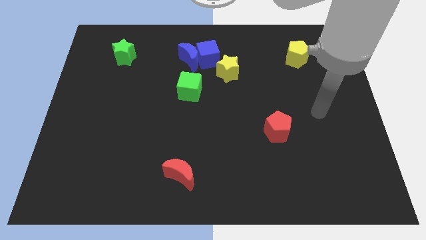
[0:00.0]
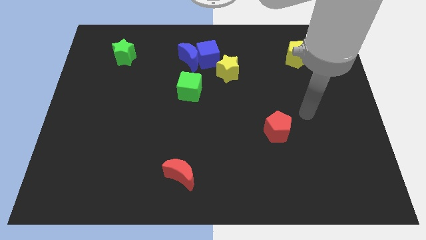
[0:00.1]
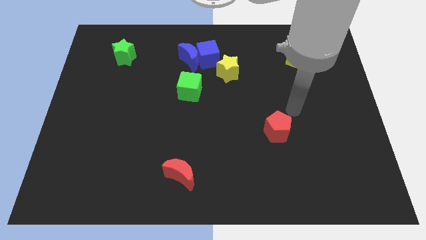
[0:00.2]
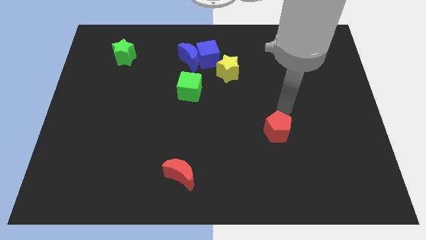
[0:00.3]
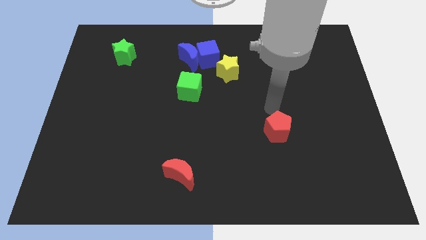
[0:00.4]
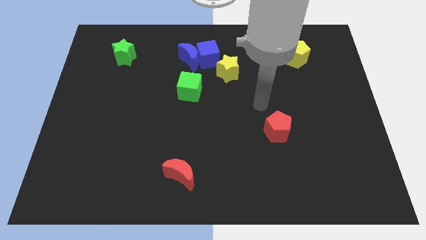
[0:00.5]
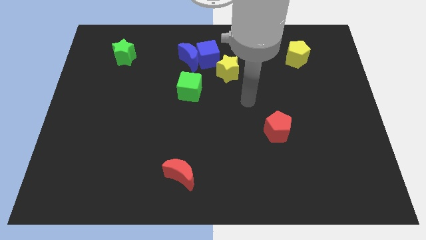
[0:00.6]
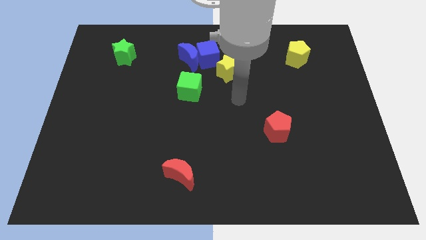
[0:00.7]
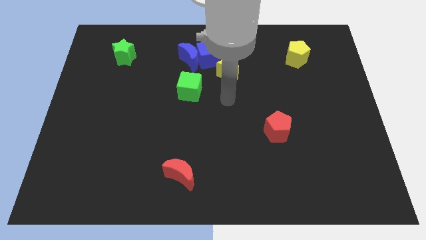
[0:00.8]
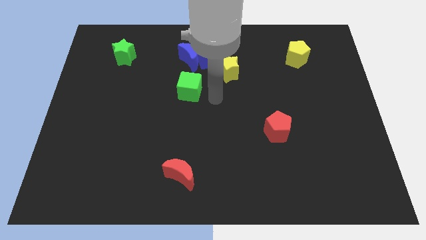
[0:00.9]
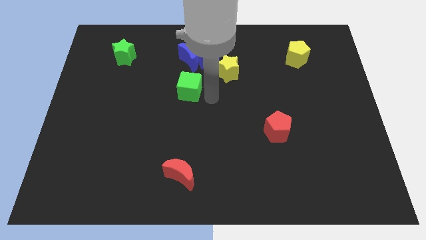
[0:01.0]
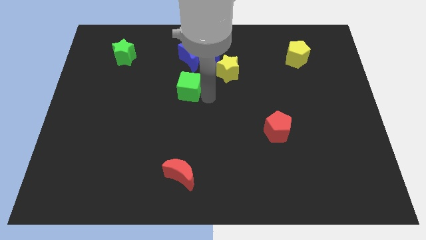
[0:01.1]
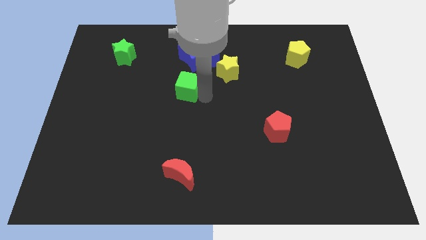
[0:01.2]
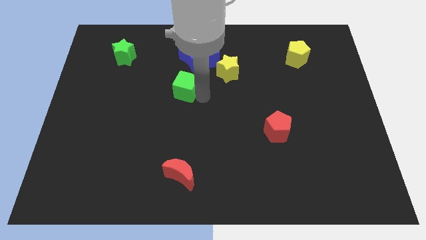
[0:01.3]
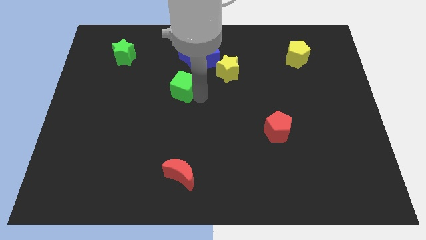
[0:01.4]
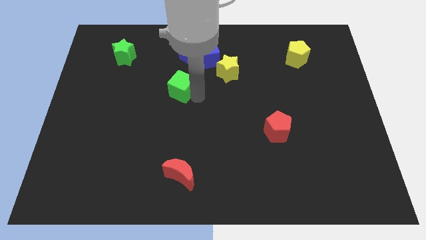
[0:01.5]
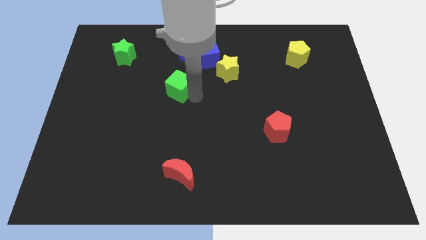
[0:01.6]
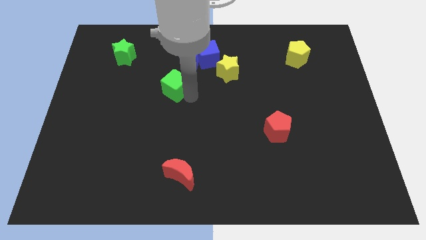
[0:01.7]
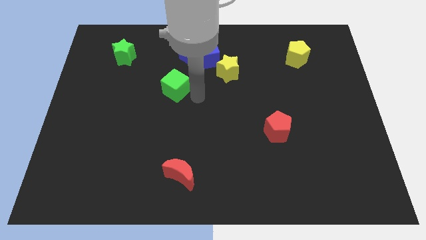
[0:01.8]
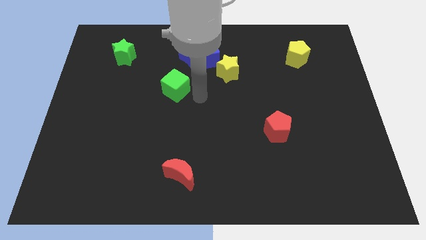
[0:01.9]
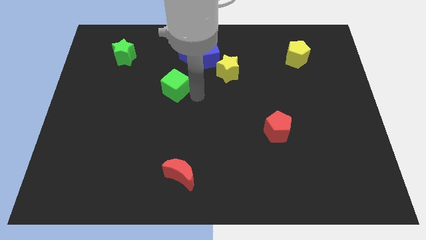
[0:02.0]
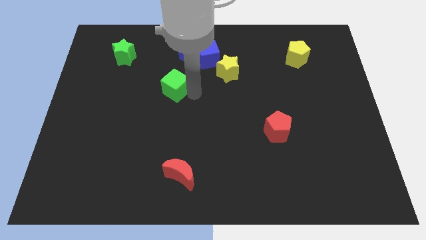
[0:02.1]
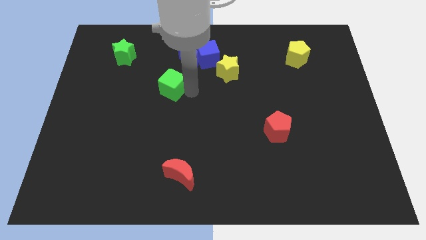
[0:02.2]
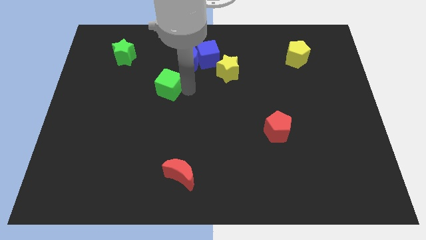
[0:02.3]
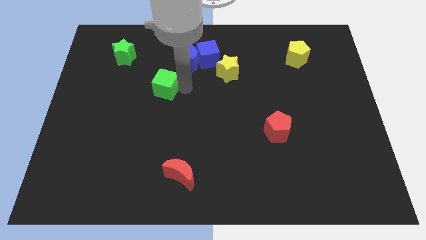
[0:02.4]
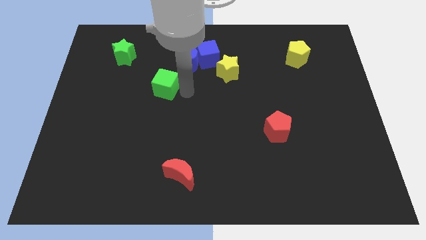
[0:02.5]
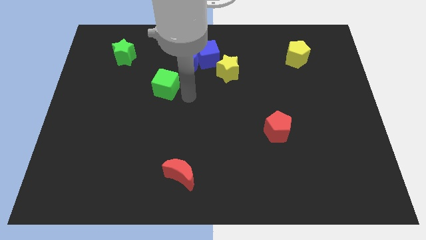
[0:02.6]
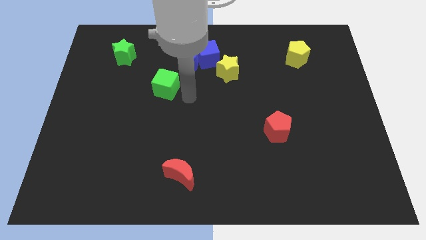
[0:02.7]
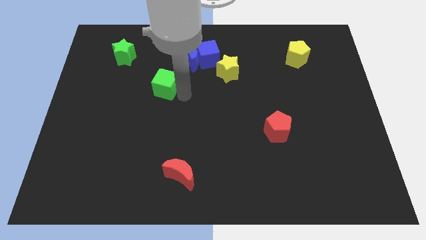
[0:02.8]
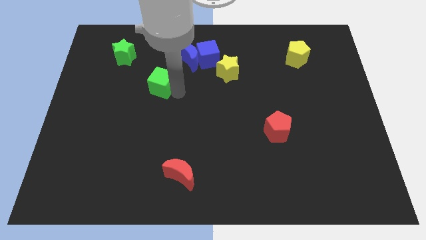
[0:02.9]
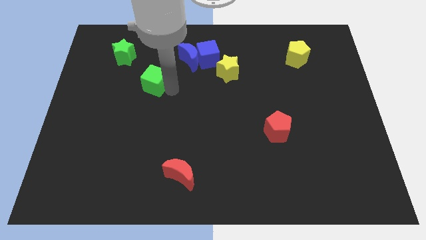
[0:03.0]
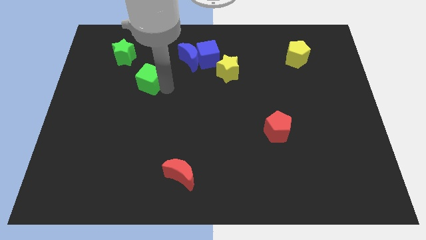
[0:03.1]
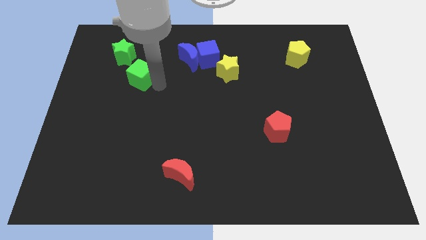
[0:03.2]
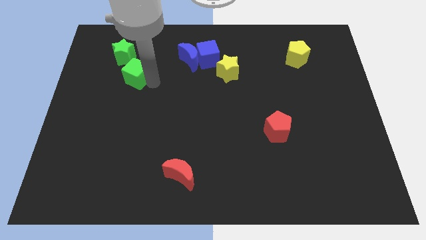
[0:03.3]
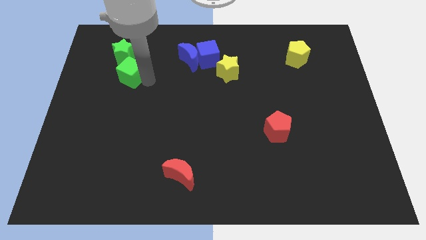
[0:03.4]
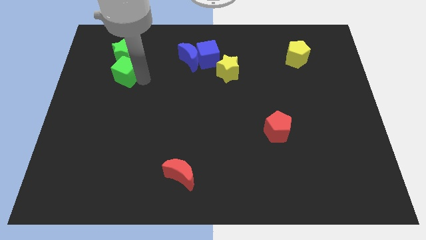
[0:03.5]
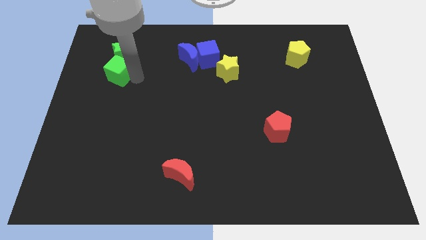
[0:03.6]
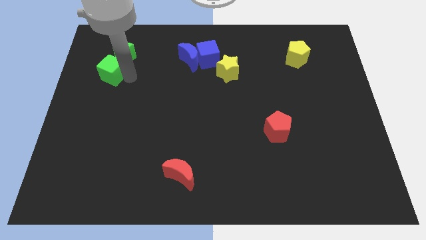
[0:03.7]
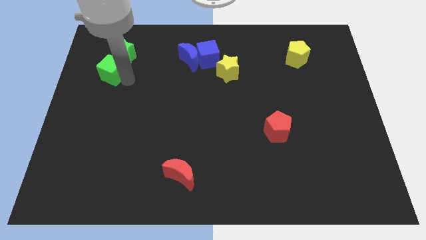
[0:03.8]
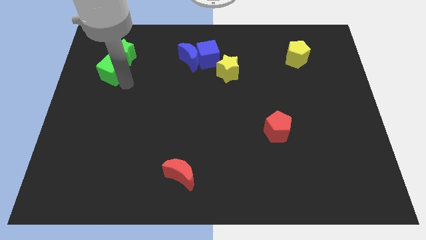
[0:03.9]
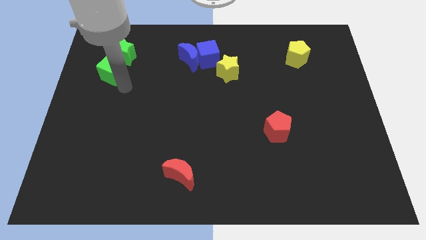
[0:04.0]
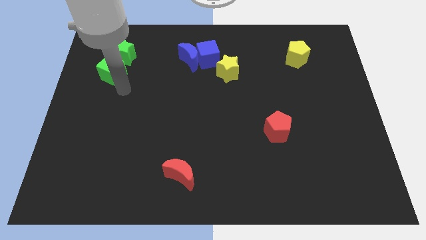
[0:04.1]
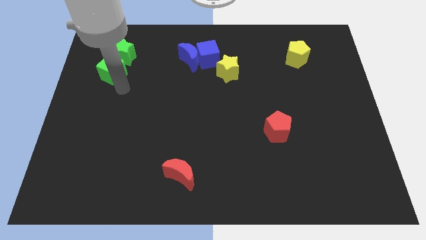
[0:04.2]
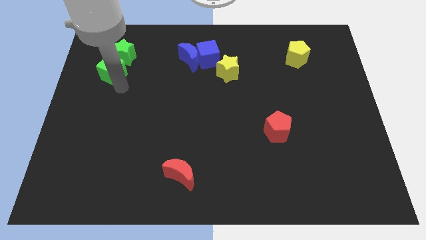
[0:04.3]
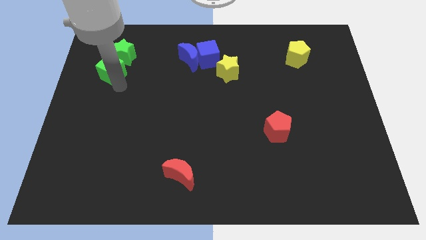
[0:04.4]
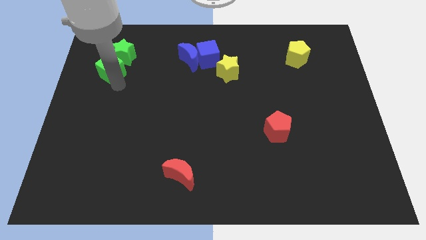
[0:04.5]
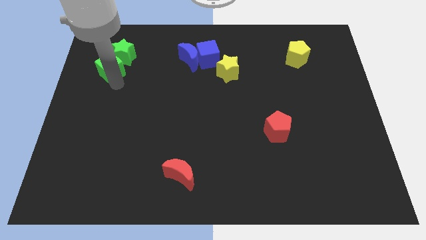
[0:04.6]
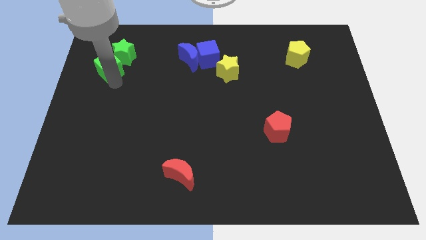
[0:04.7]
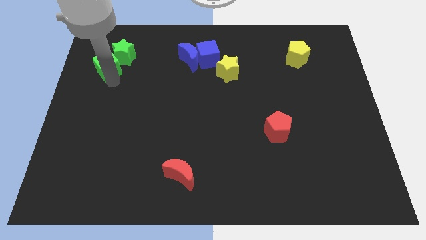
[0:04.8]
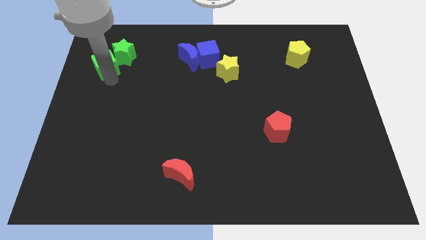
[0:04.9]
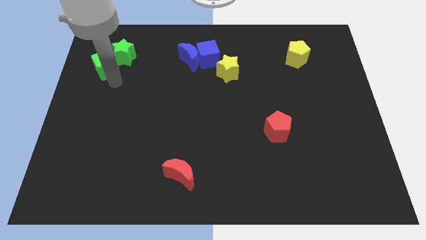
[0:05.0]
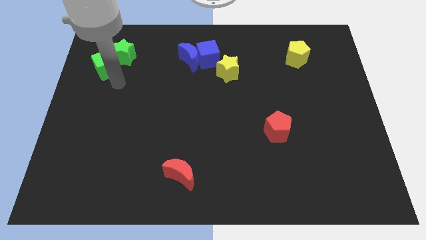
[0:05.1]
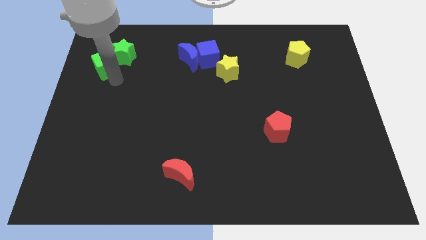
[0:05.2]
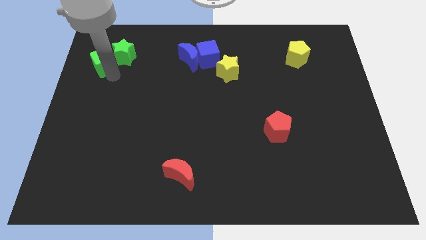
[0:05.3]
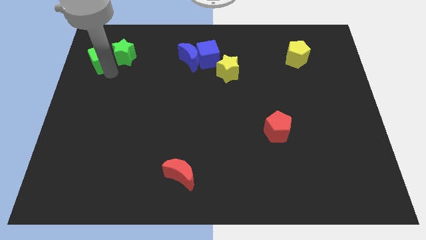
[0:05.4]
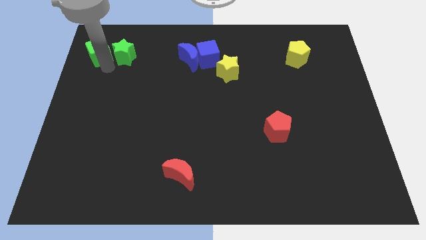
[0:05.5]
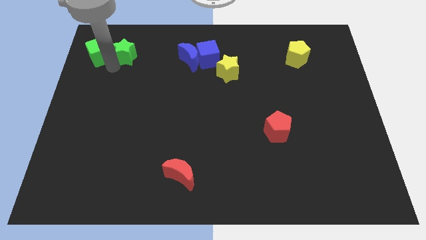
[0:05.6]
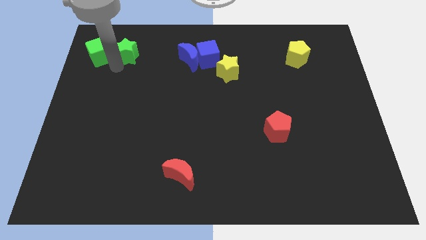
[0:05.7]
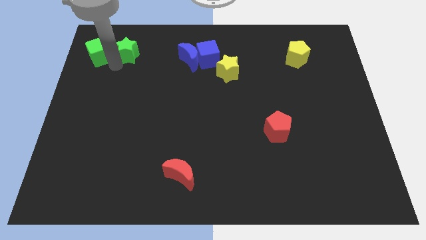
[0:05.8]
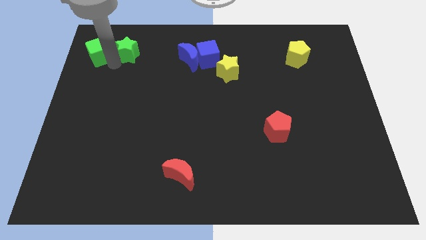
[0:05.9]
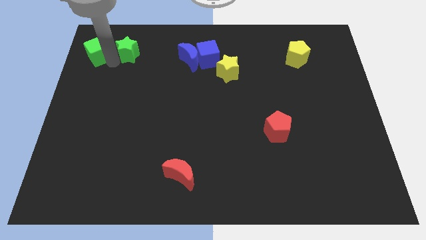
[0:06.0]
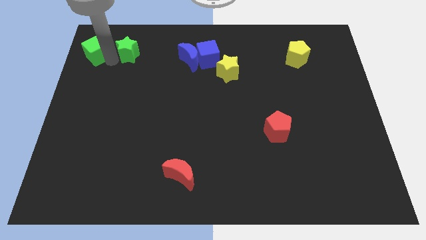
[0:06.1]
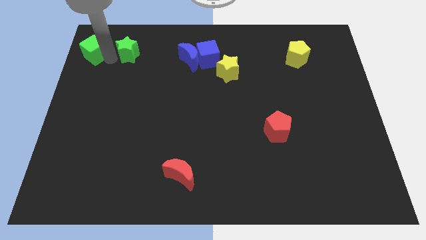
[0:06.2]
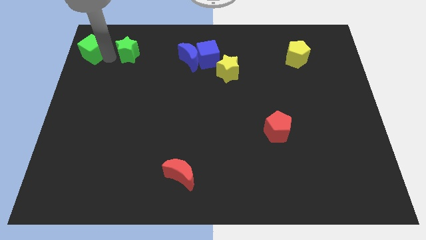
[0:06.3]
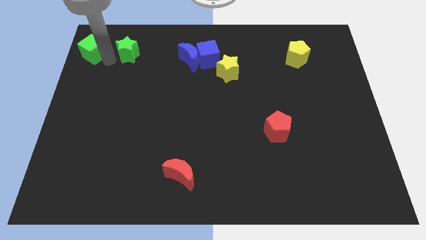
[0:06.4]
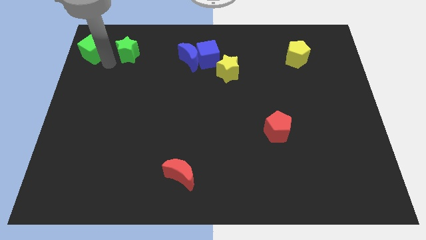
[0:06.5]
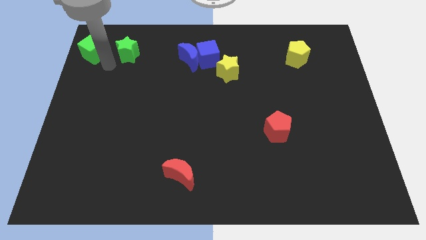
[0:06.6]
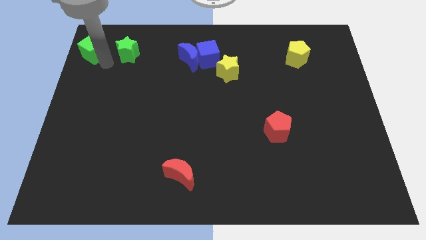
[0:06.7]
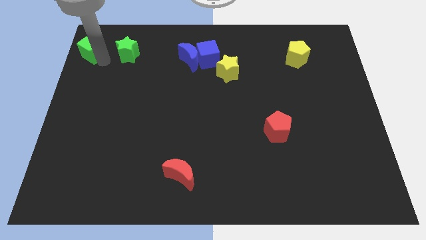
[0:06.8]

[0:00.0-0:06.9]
move the green cube to the top left of the board
